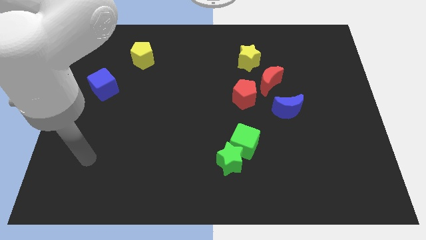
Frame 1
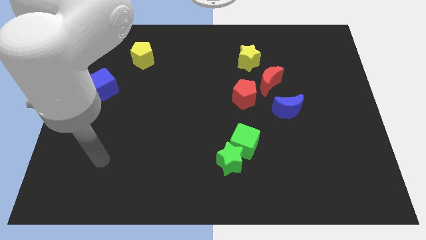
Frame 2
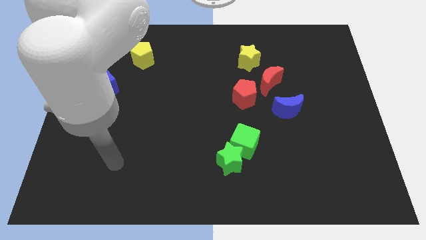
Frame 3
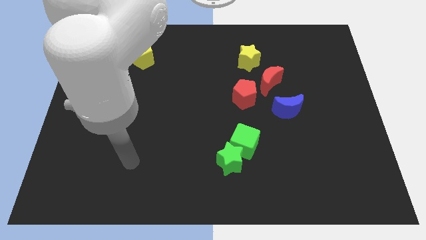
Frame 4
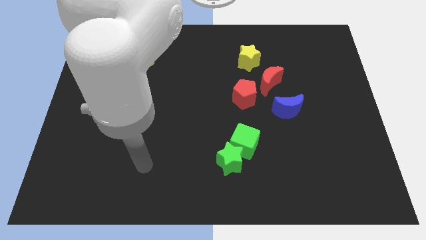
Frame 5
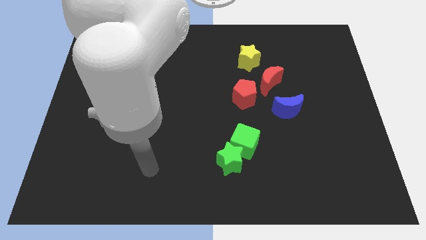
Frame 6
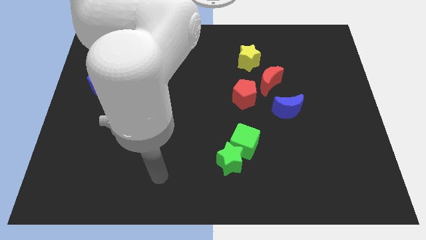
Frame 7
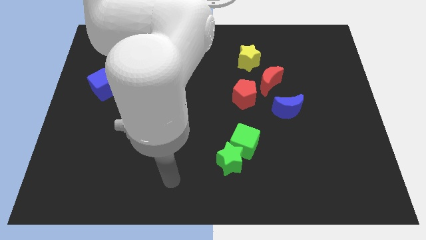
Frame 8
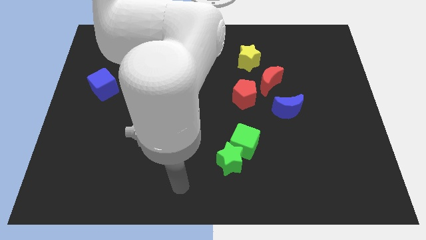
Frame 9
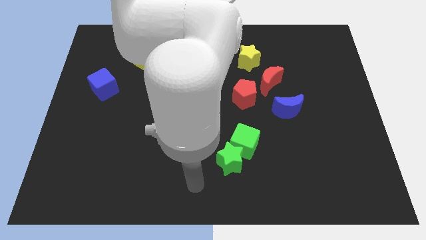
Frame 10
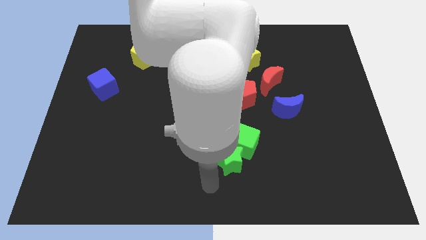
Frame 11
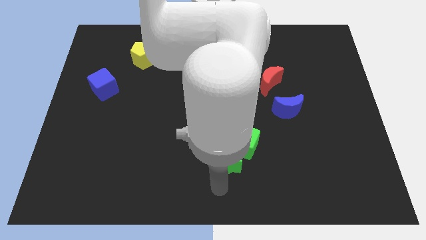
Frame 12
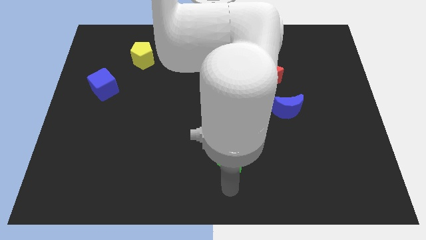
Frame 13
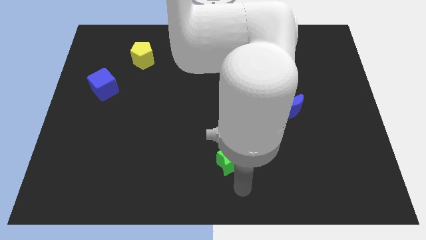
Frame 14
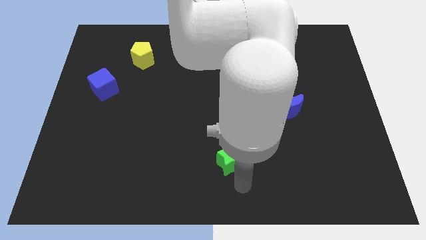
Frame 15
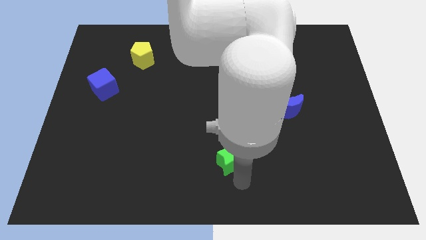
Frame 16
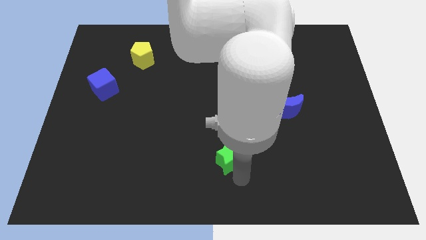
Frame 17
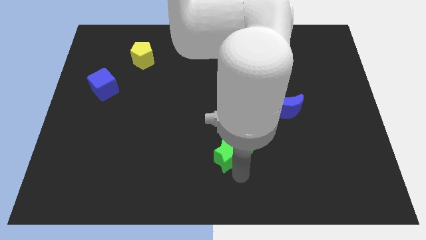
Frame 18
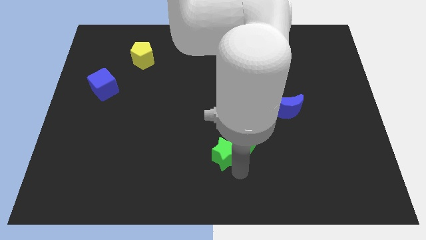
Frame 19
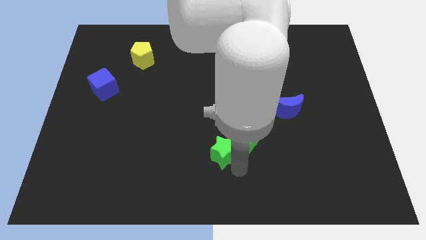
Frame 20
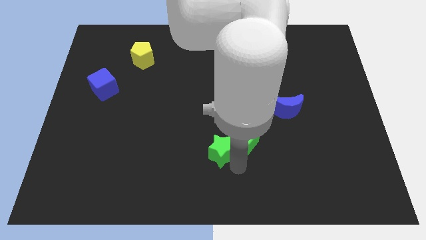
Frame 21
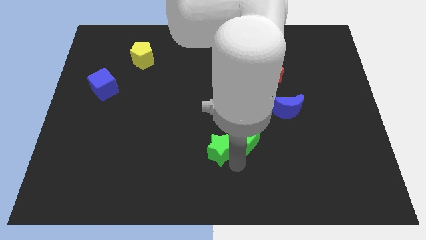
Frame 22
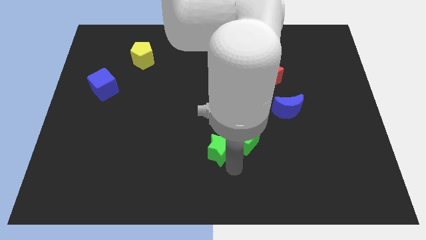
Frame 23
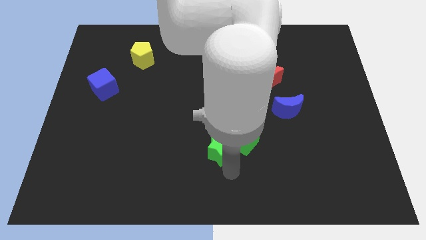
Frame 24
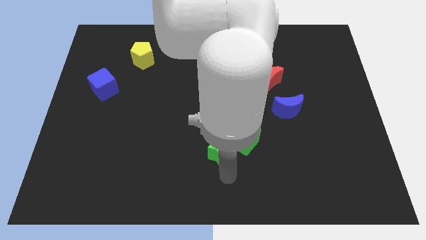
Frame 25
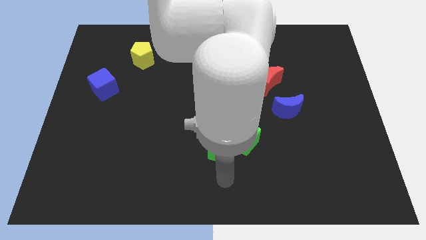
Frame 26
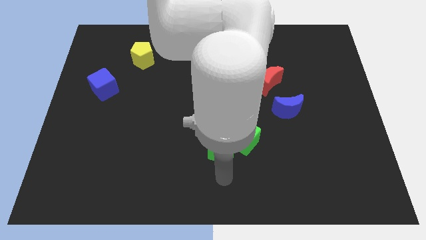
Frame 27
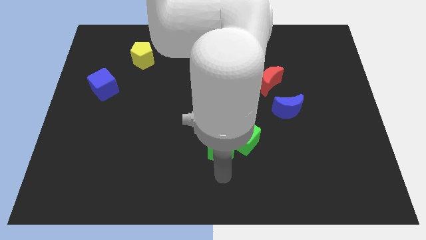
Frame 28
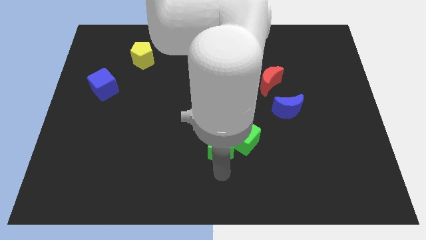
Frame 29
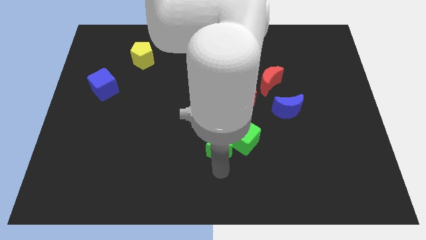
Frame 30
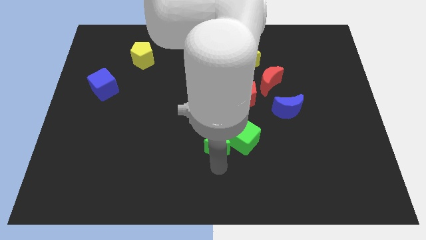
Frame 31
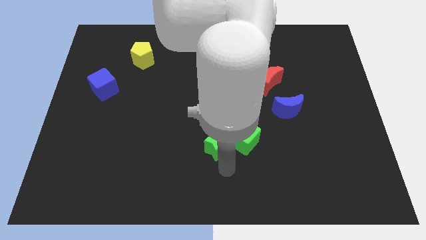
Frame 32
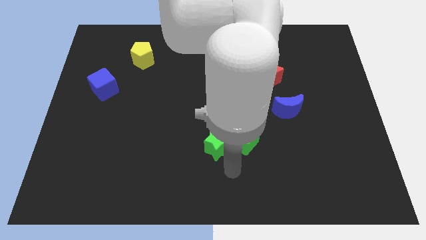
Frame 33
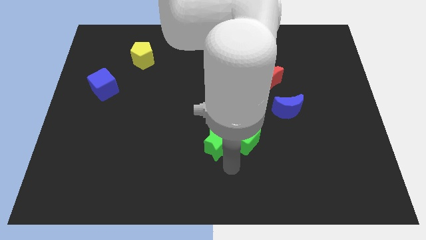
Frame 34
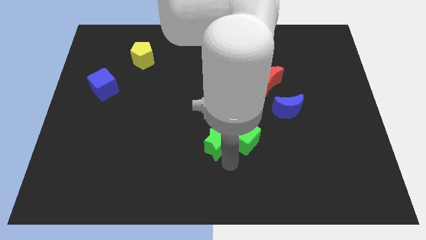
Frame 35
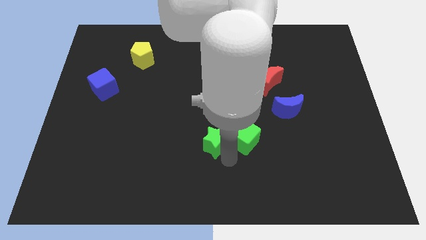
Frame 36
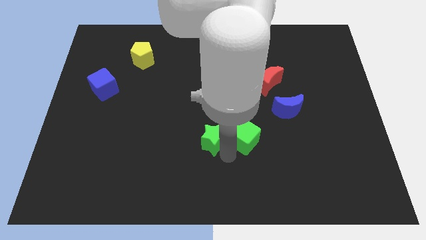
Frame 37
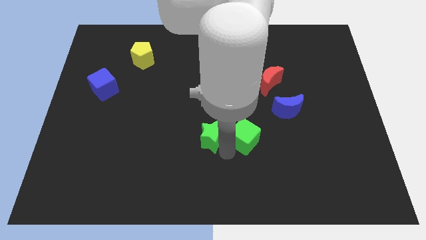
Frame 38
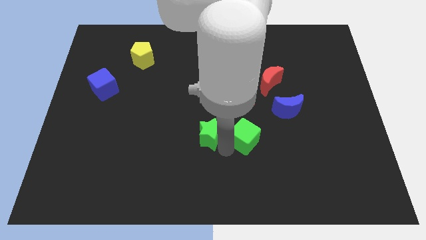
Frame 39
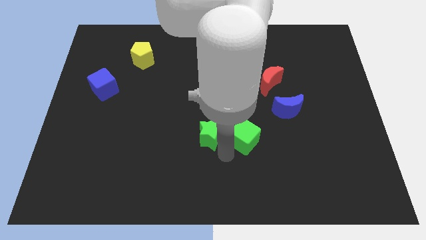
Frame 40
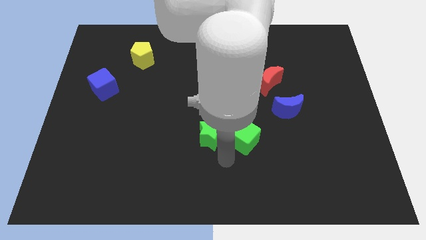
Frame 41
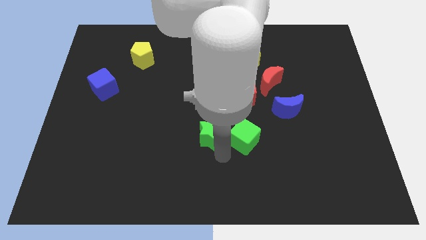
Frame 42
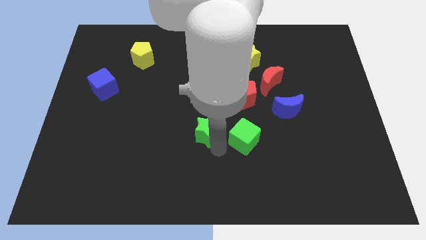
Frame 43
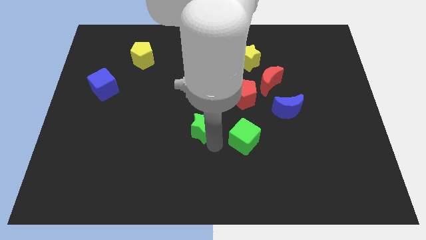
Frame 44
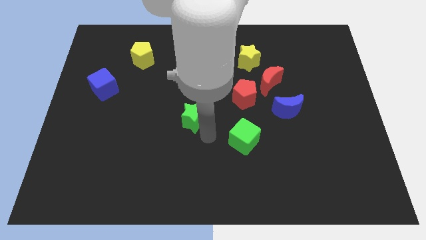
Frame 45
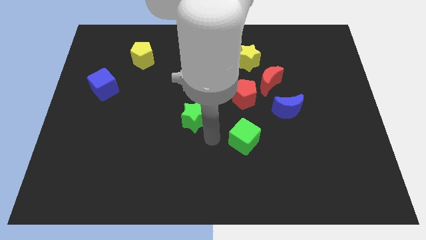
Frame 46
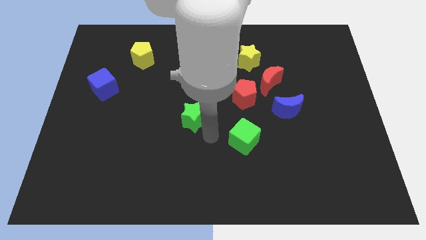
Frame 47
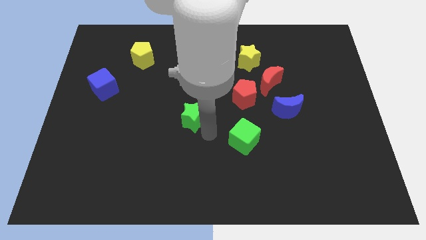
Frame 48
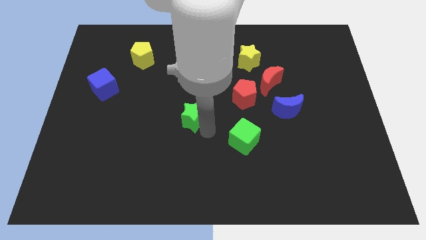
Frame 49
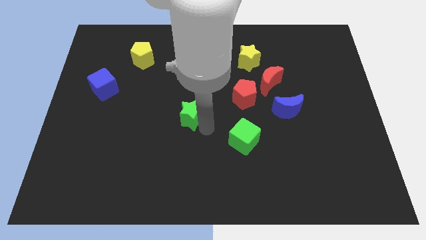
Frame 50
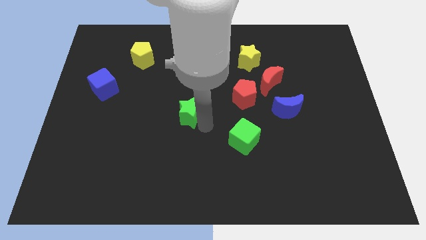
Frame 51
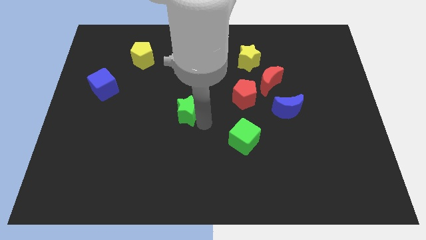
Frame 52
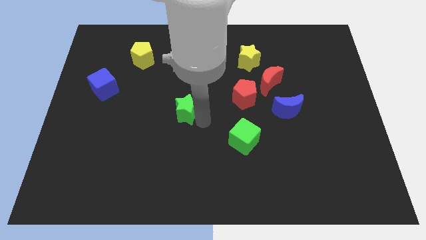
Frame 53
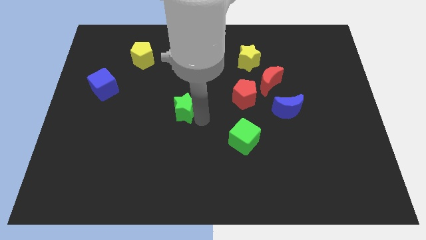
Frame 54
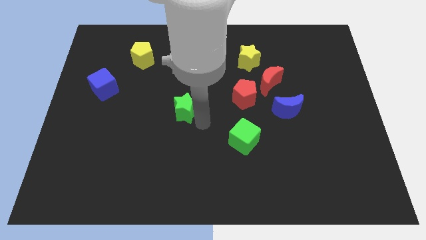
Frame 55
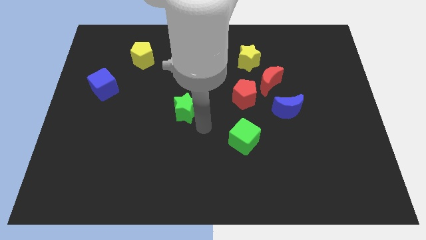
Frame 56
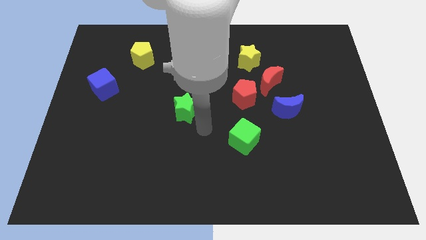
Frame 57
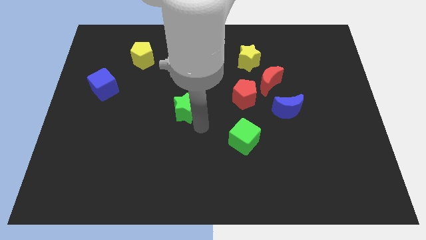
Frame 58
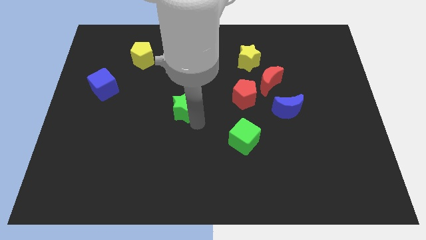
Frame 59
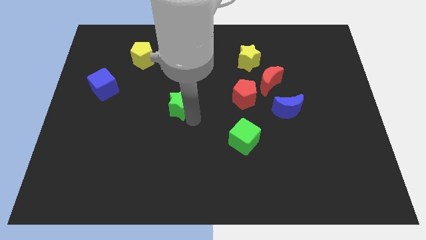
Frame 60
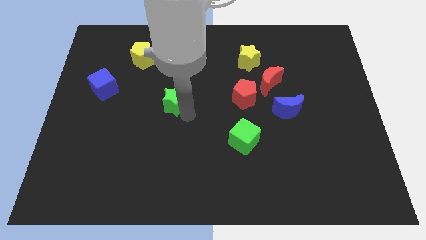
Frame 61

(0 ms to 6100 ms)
slide the green star up and to the left diagonally

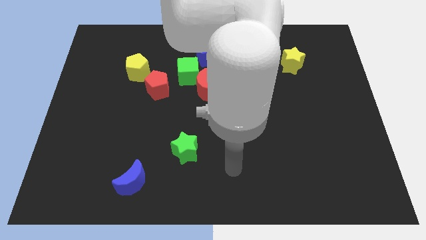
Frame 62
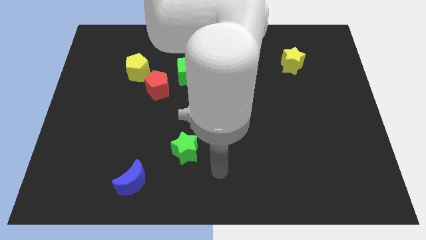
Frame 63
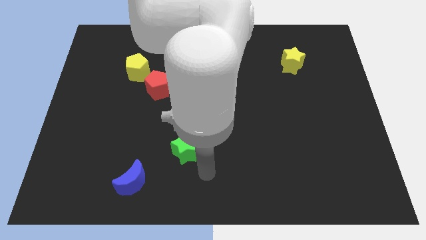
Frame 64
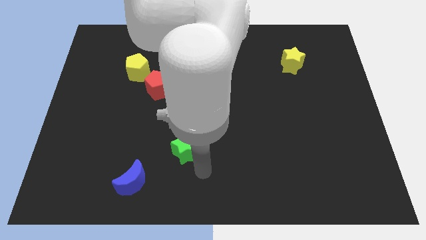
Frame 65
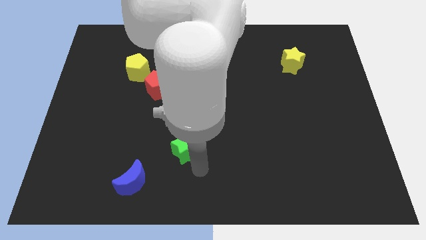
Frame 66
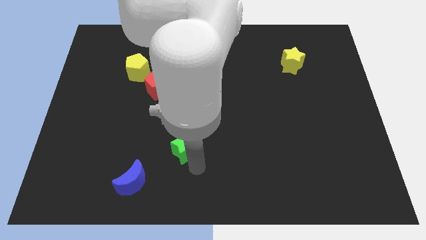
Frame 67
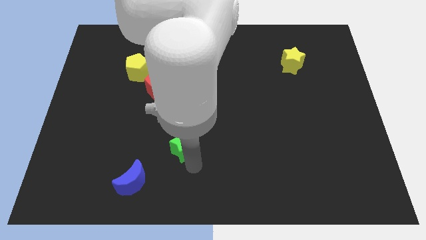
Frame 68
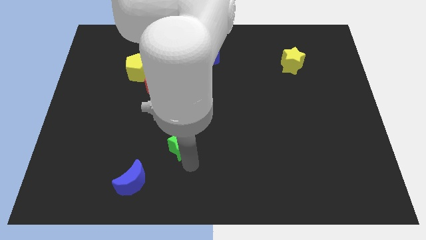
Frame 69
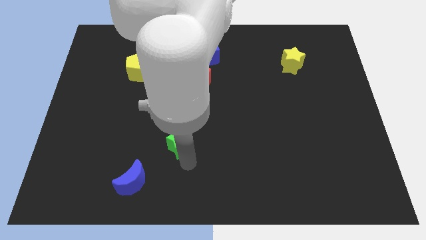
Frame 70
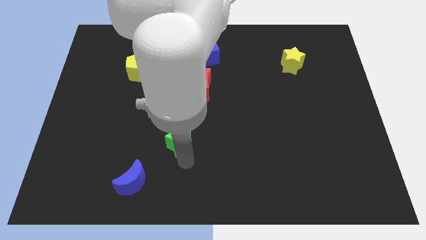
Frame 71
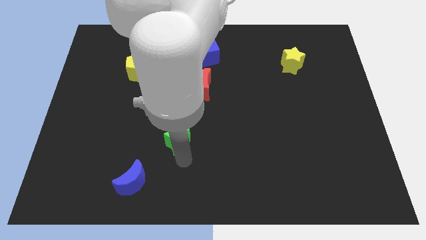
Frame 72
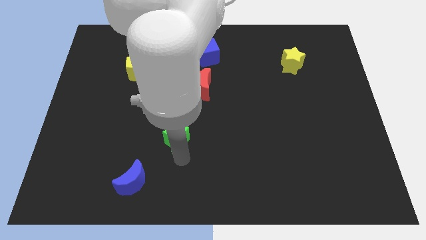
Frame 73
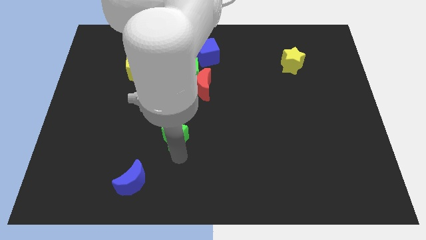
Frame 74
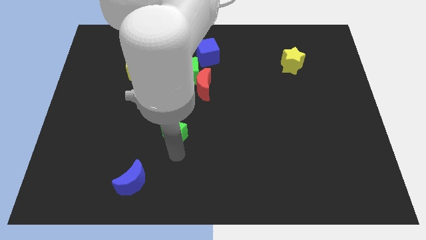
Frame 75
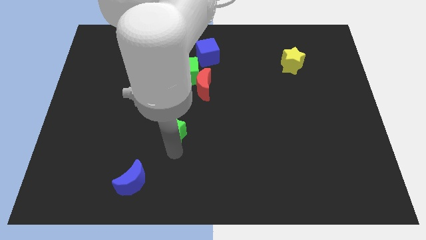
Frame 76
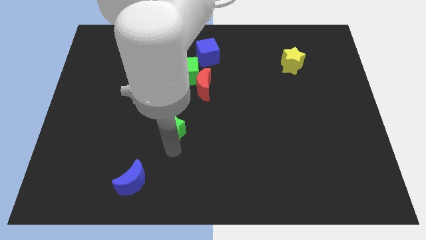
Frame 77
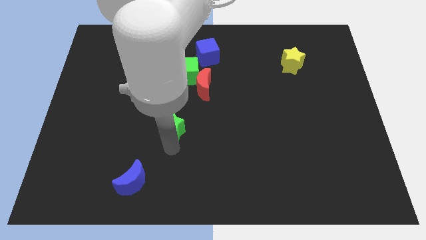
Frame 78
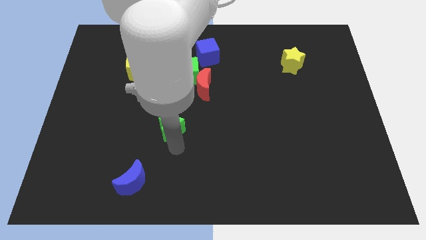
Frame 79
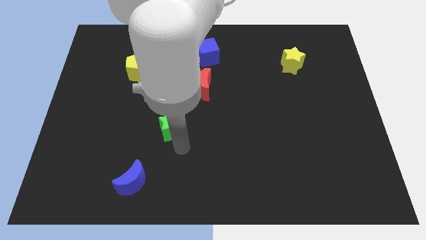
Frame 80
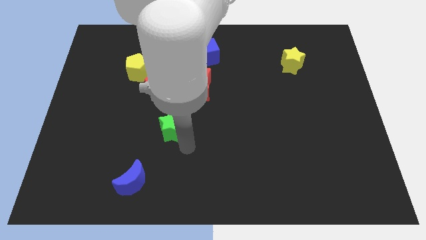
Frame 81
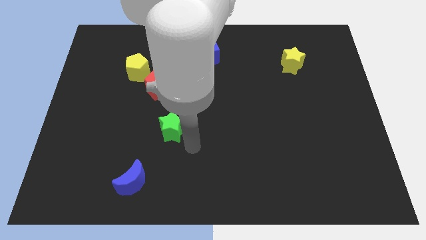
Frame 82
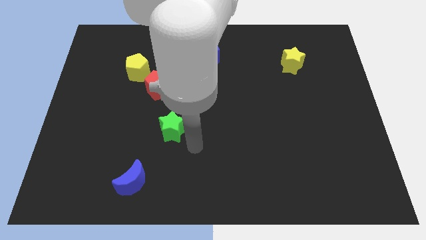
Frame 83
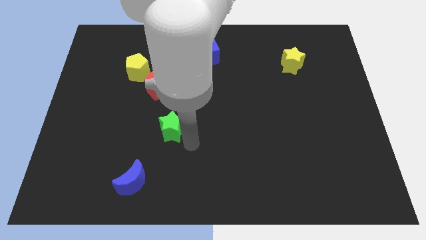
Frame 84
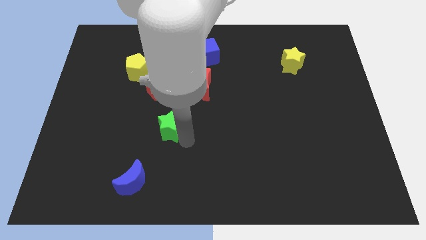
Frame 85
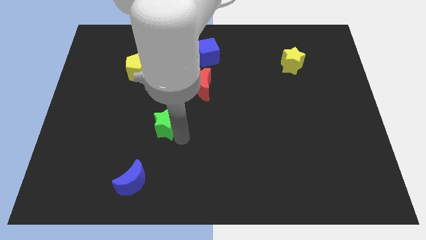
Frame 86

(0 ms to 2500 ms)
move the green star a little diagonally upwards and left
